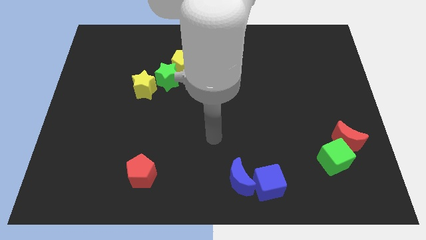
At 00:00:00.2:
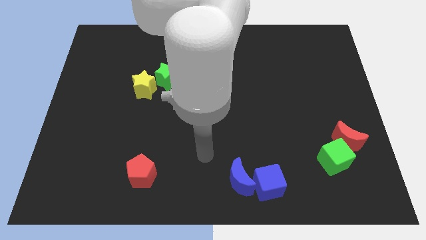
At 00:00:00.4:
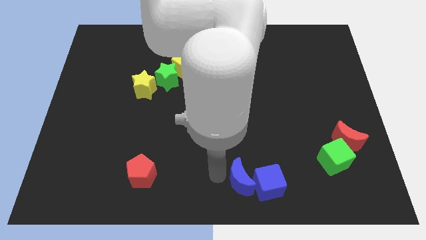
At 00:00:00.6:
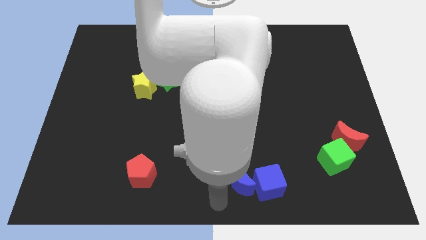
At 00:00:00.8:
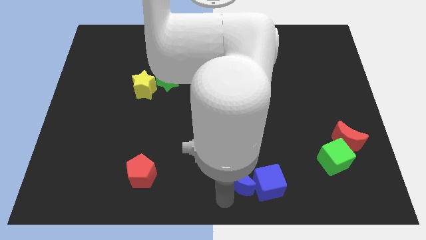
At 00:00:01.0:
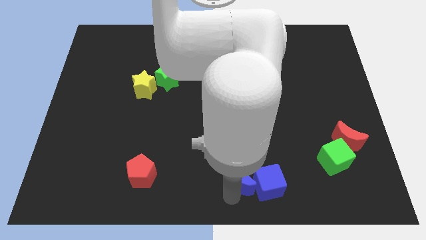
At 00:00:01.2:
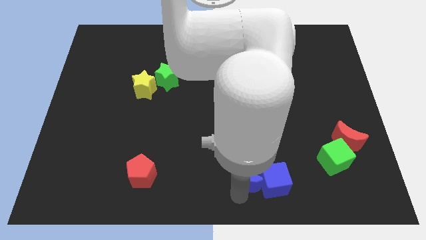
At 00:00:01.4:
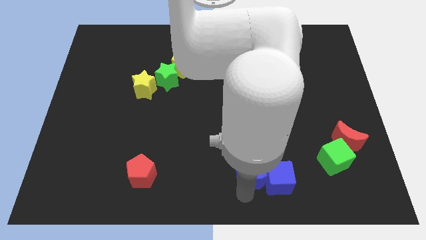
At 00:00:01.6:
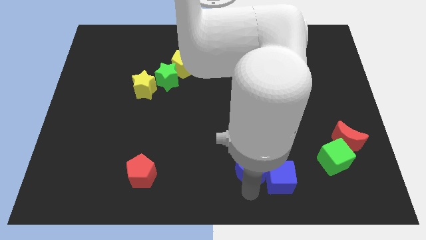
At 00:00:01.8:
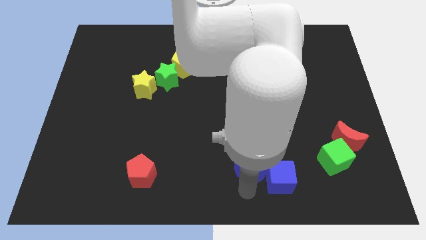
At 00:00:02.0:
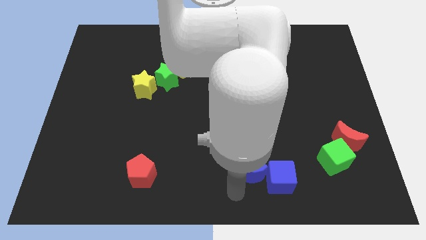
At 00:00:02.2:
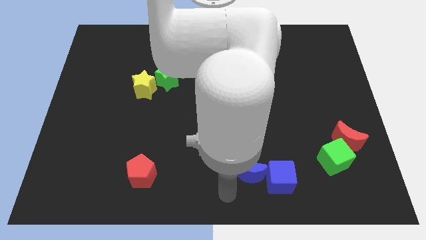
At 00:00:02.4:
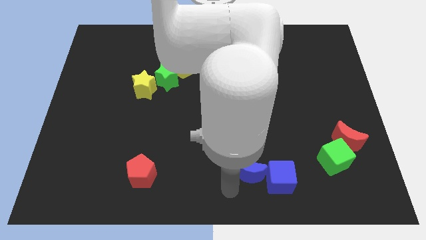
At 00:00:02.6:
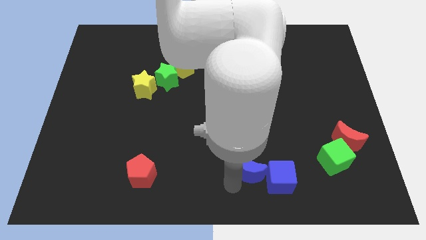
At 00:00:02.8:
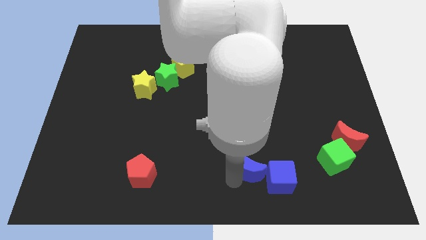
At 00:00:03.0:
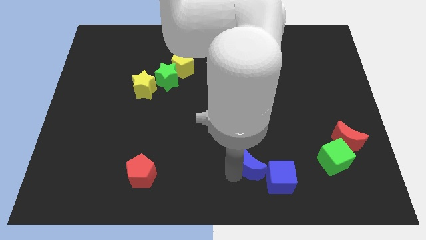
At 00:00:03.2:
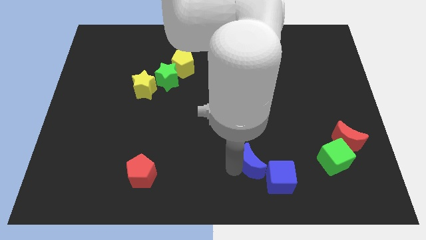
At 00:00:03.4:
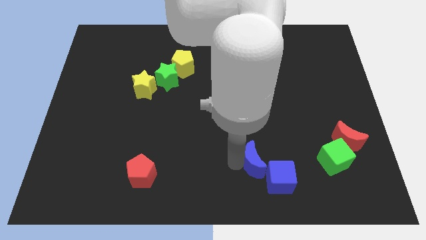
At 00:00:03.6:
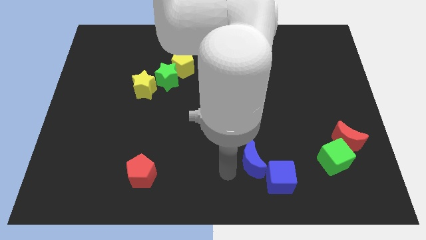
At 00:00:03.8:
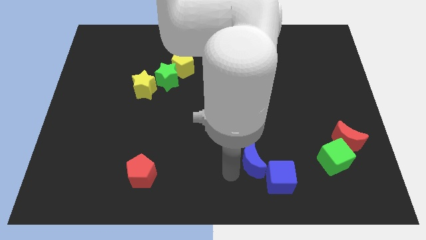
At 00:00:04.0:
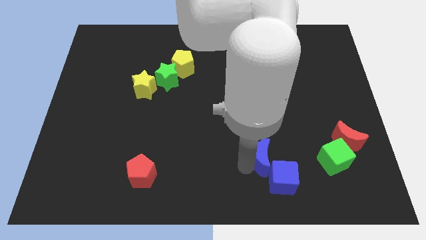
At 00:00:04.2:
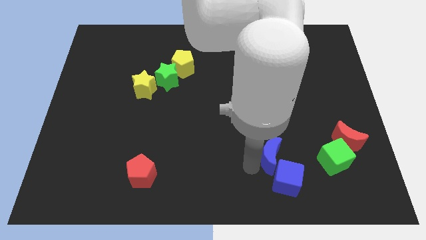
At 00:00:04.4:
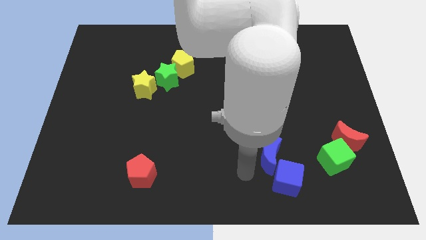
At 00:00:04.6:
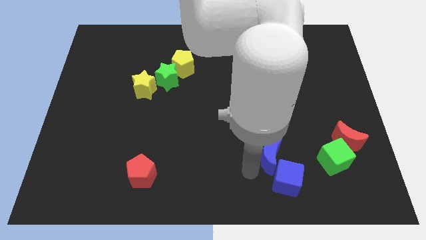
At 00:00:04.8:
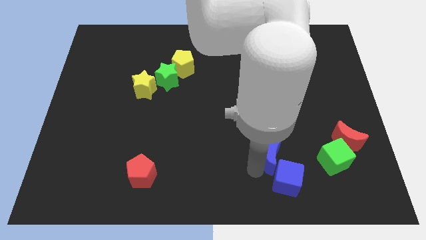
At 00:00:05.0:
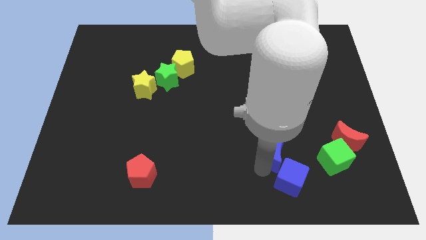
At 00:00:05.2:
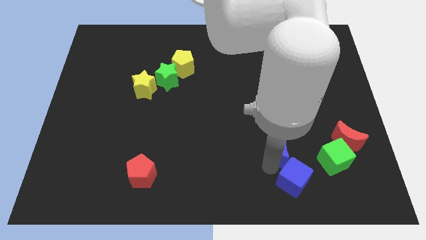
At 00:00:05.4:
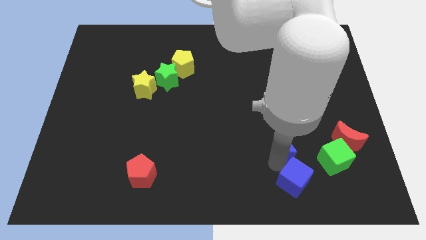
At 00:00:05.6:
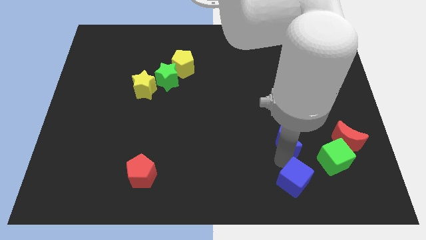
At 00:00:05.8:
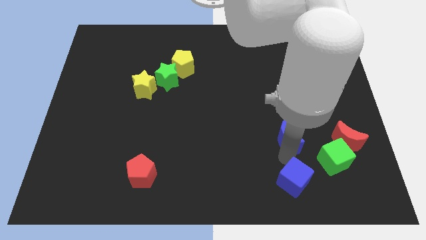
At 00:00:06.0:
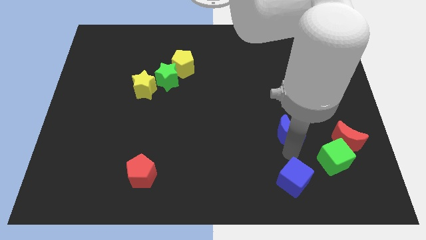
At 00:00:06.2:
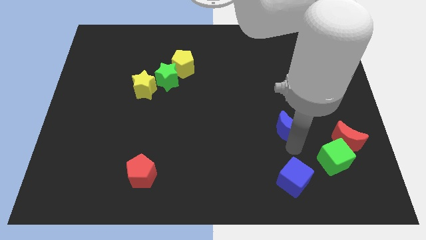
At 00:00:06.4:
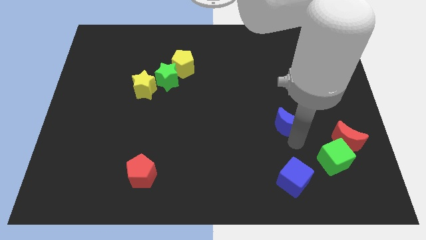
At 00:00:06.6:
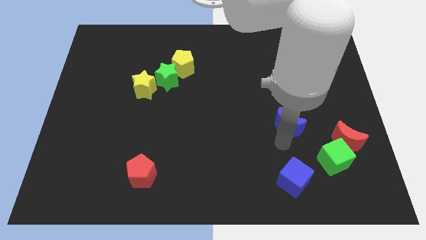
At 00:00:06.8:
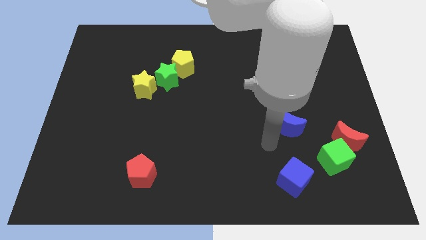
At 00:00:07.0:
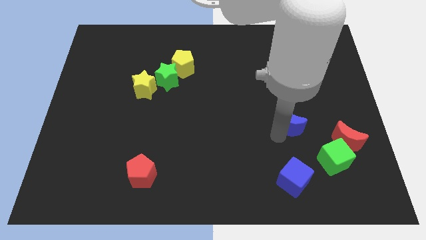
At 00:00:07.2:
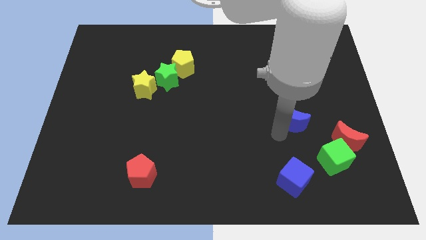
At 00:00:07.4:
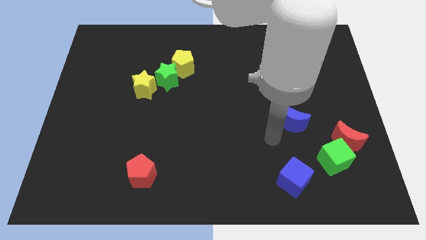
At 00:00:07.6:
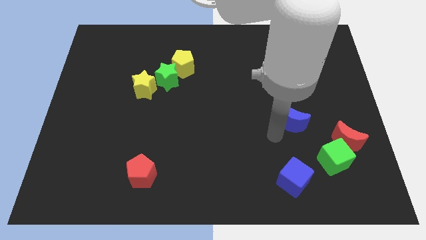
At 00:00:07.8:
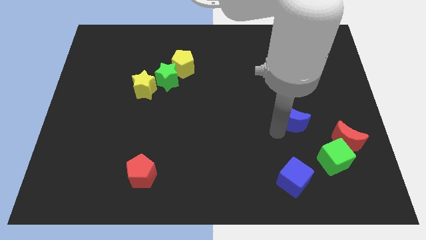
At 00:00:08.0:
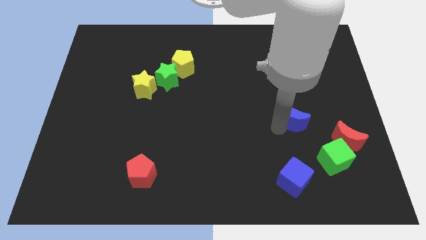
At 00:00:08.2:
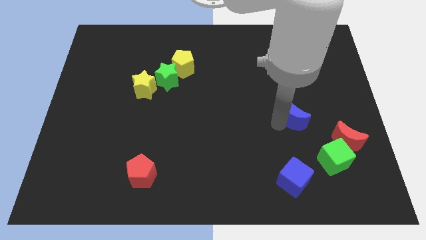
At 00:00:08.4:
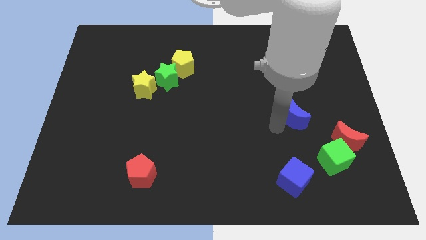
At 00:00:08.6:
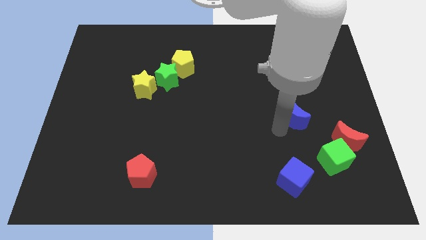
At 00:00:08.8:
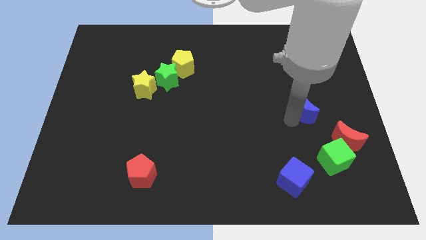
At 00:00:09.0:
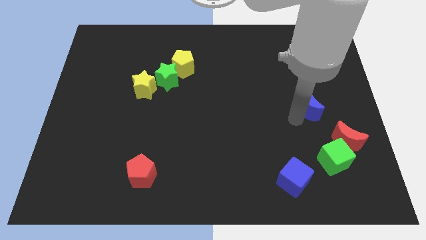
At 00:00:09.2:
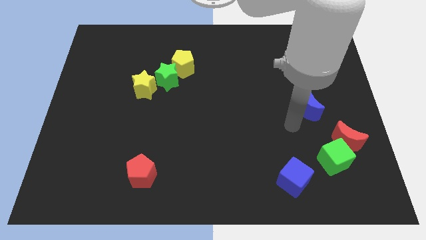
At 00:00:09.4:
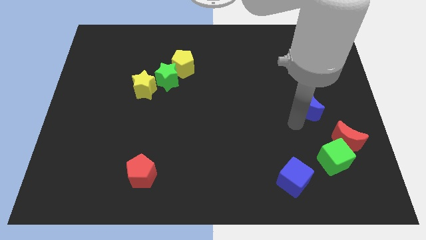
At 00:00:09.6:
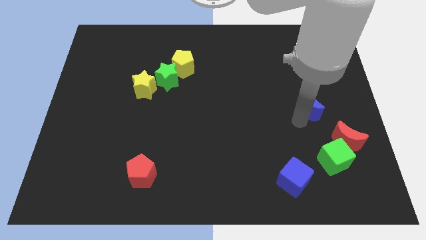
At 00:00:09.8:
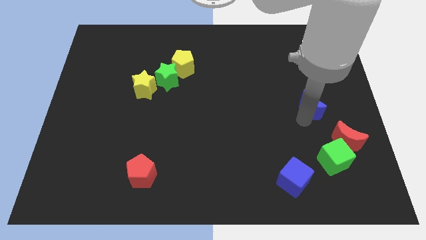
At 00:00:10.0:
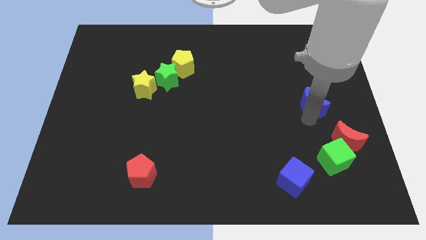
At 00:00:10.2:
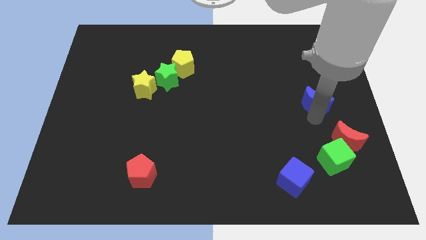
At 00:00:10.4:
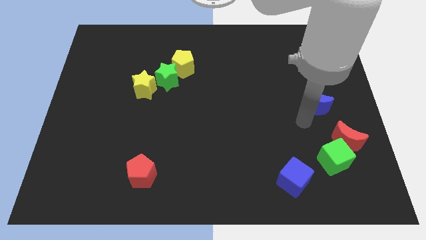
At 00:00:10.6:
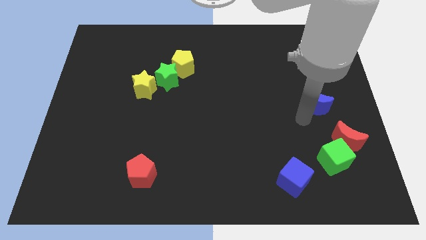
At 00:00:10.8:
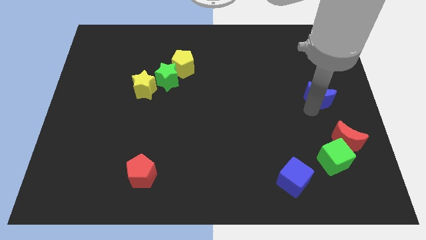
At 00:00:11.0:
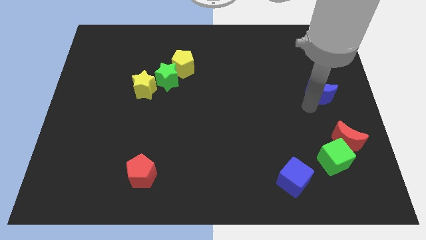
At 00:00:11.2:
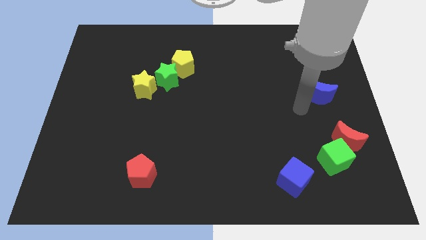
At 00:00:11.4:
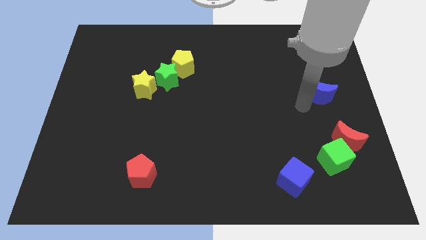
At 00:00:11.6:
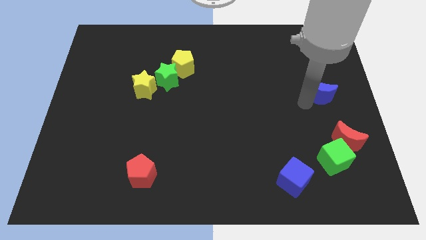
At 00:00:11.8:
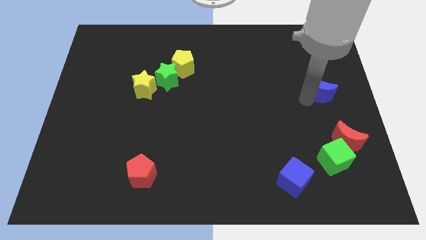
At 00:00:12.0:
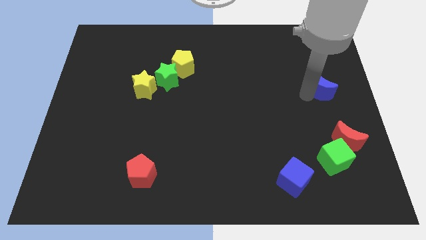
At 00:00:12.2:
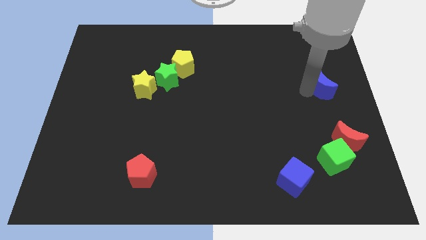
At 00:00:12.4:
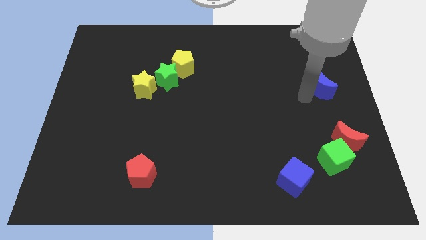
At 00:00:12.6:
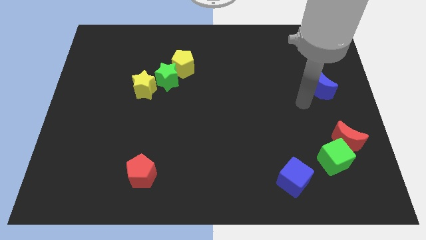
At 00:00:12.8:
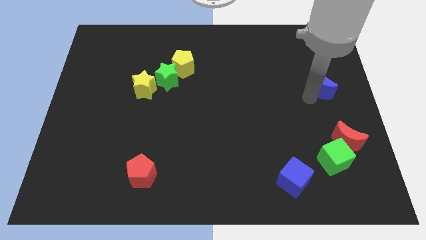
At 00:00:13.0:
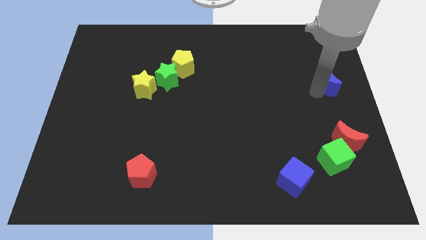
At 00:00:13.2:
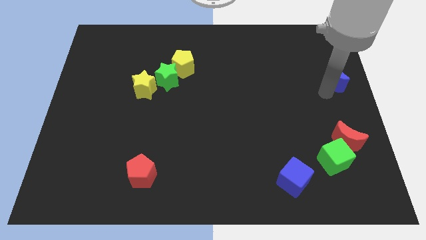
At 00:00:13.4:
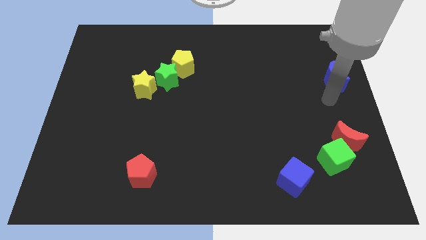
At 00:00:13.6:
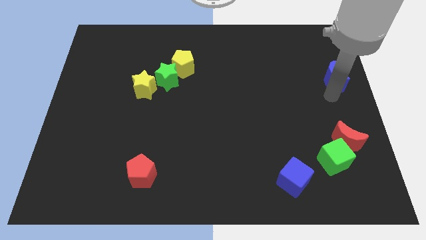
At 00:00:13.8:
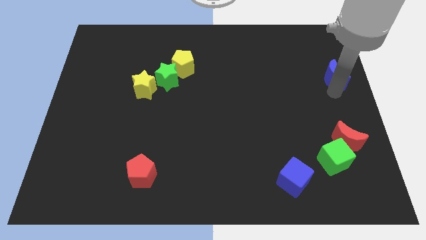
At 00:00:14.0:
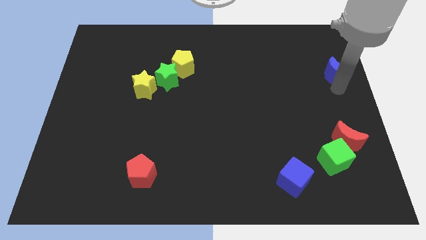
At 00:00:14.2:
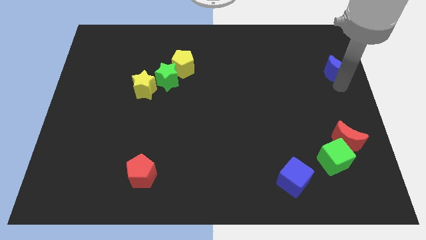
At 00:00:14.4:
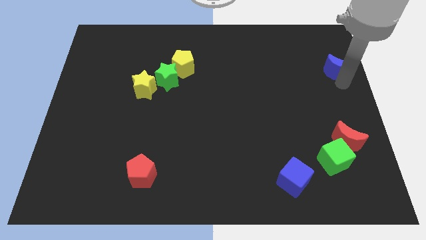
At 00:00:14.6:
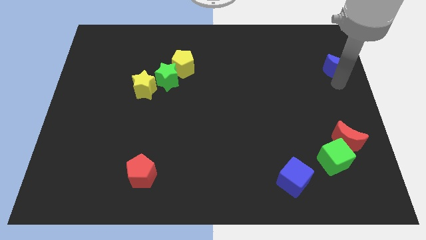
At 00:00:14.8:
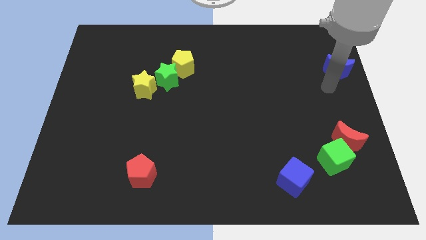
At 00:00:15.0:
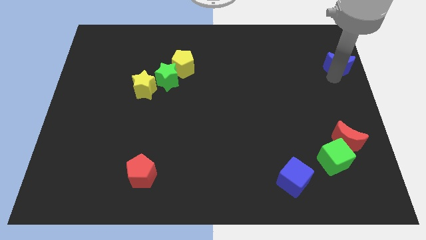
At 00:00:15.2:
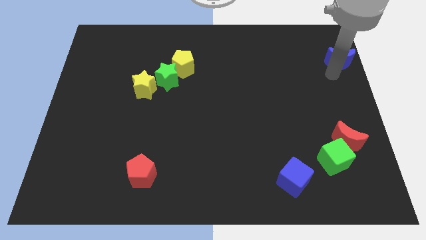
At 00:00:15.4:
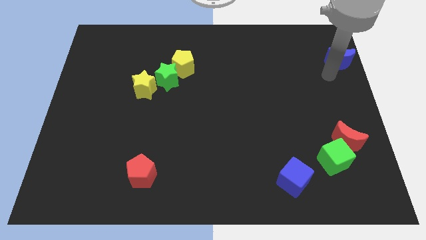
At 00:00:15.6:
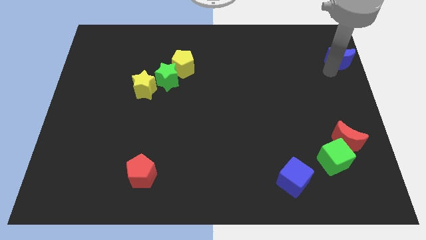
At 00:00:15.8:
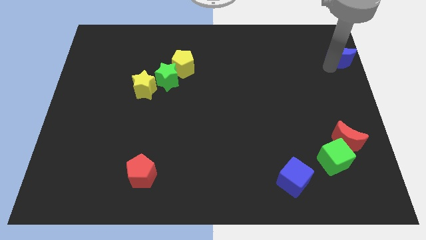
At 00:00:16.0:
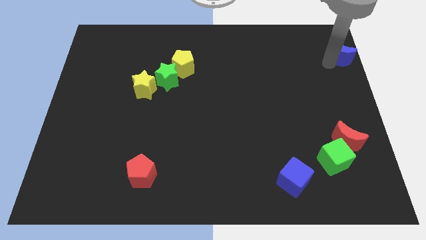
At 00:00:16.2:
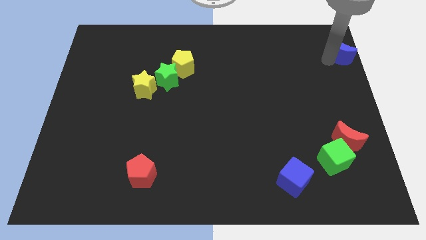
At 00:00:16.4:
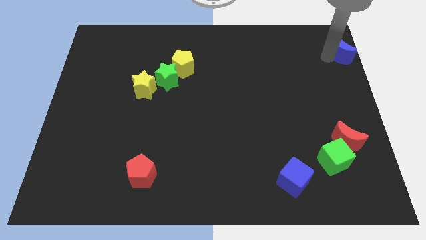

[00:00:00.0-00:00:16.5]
push the blue moon to the upper right corner
